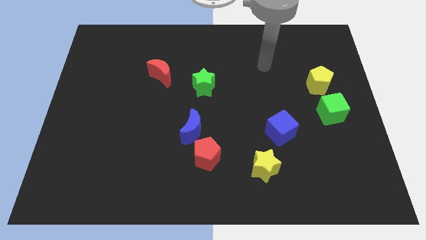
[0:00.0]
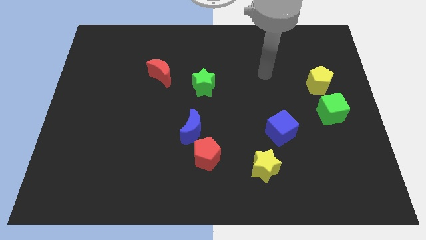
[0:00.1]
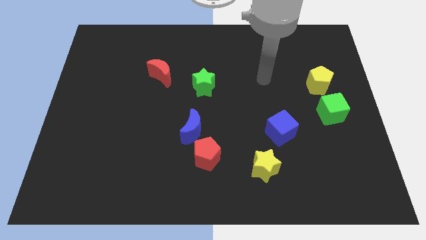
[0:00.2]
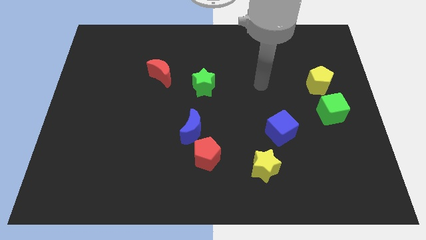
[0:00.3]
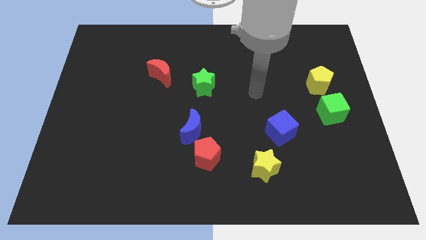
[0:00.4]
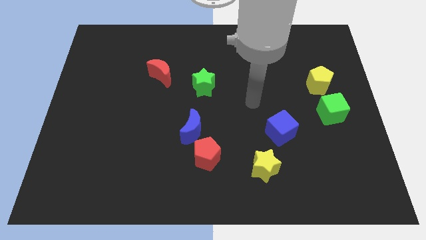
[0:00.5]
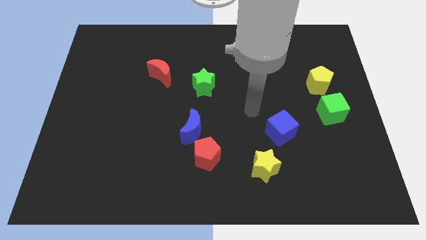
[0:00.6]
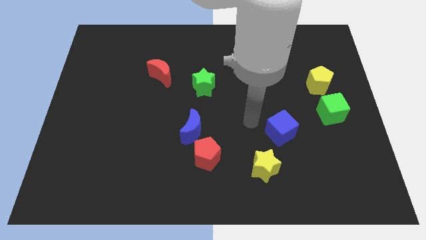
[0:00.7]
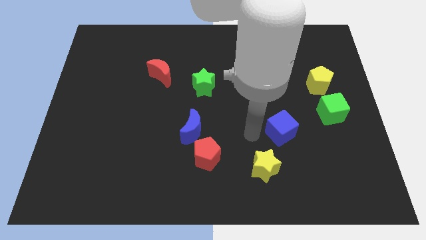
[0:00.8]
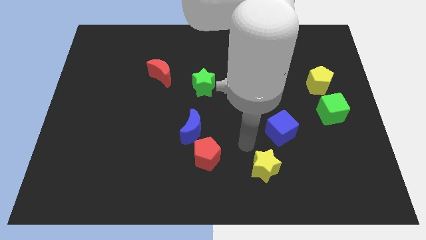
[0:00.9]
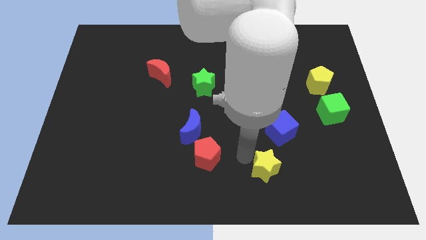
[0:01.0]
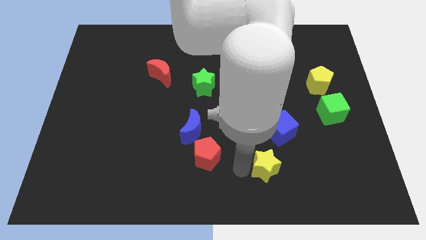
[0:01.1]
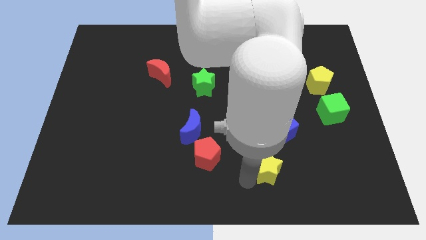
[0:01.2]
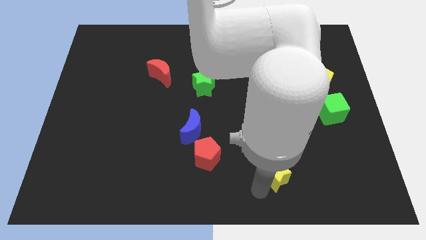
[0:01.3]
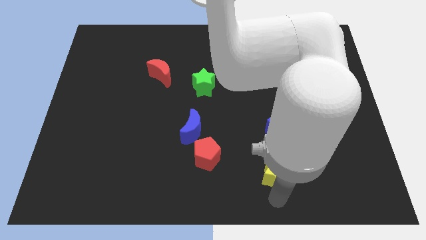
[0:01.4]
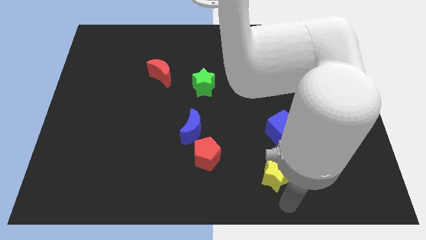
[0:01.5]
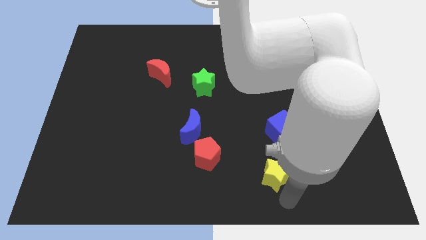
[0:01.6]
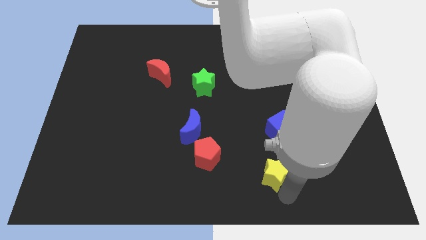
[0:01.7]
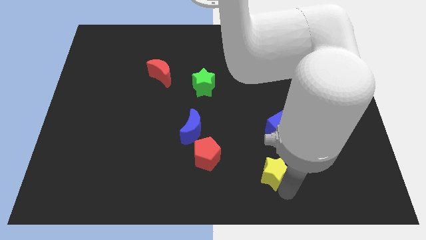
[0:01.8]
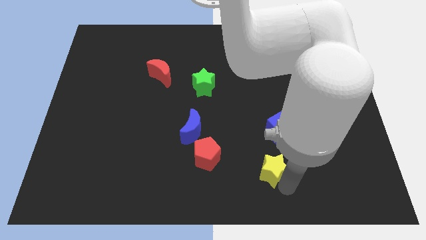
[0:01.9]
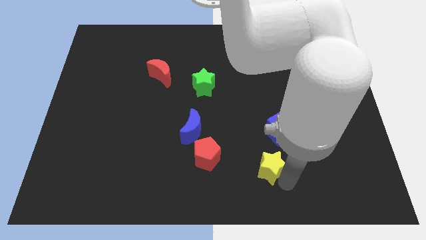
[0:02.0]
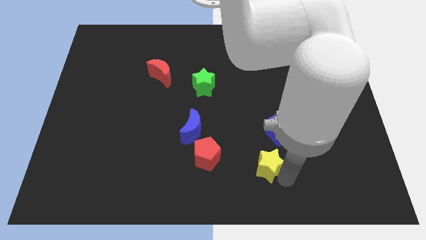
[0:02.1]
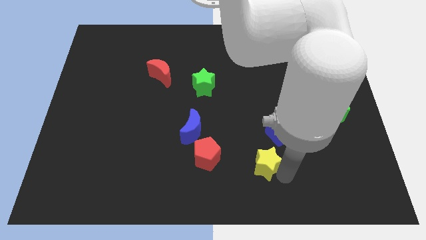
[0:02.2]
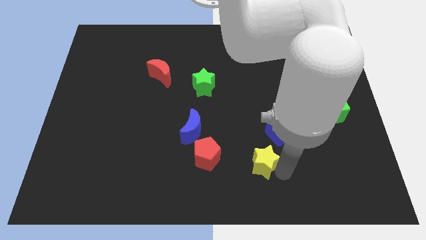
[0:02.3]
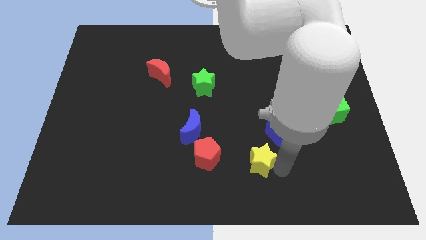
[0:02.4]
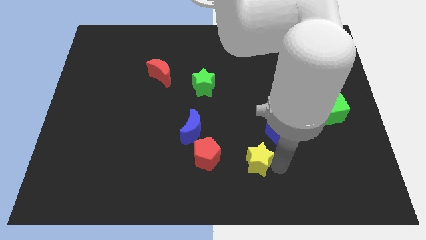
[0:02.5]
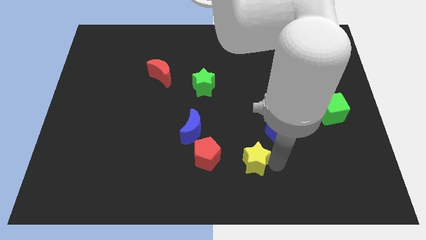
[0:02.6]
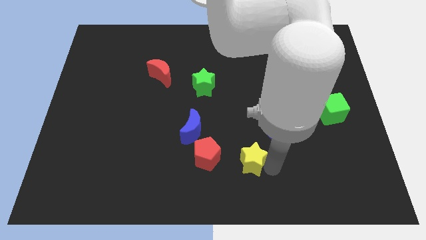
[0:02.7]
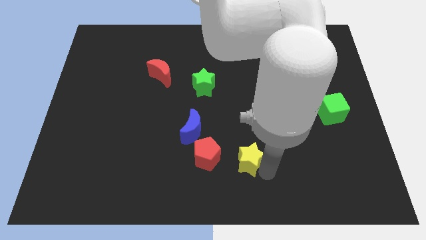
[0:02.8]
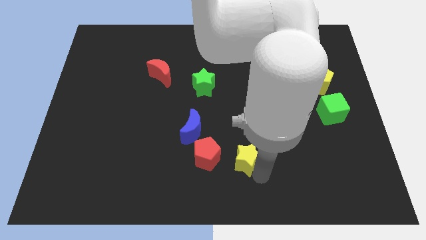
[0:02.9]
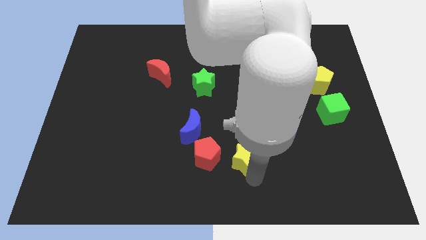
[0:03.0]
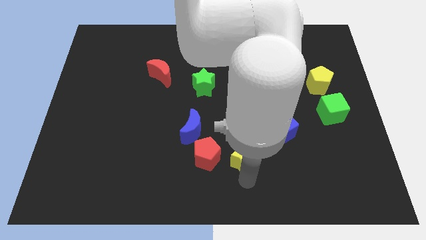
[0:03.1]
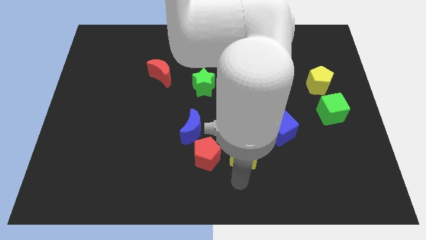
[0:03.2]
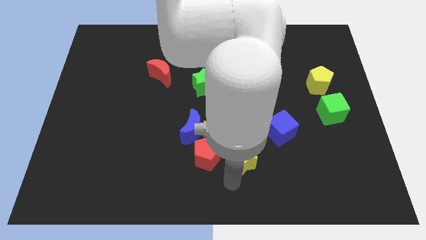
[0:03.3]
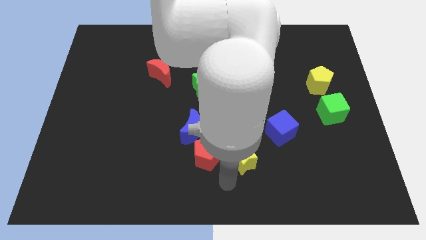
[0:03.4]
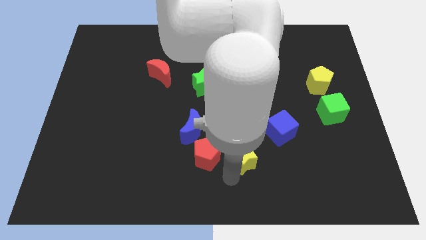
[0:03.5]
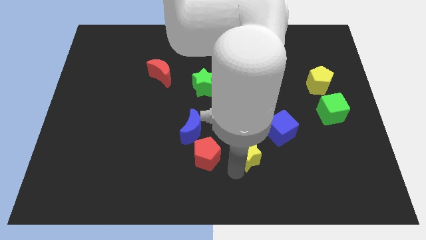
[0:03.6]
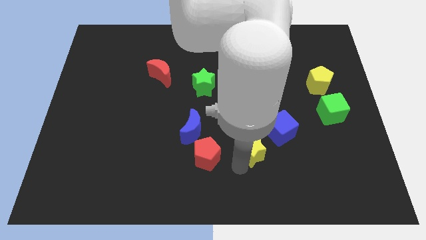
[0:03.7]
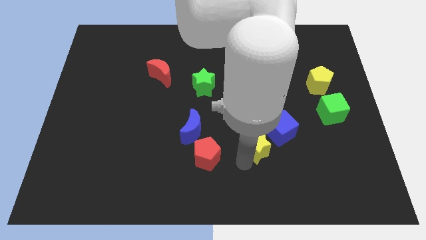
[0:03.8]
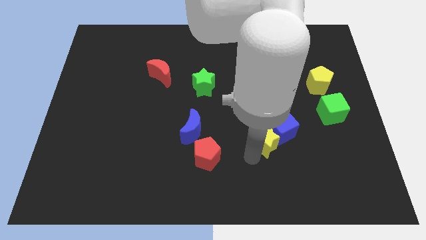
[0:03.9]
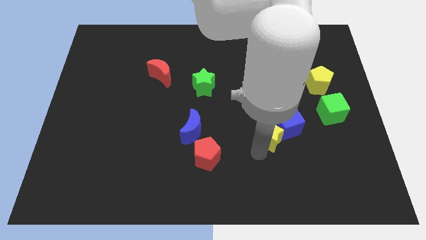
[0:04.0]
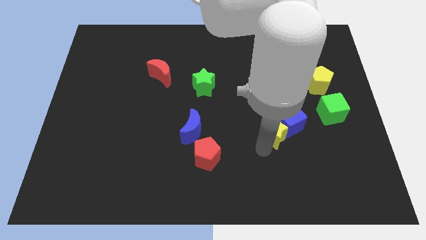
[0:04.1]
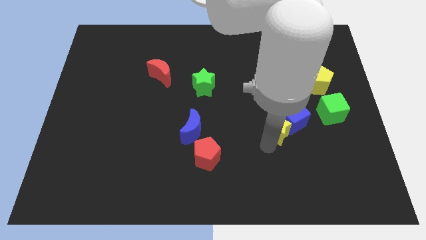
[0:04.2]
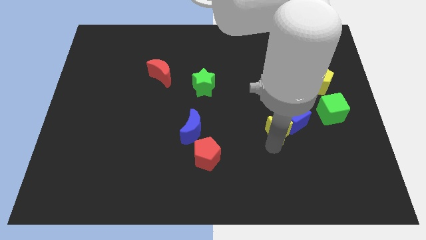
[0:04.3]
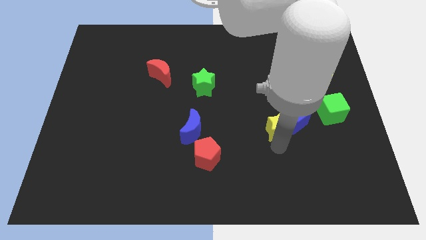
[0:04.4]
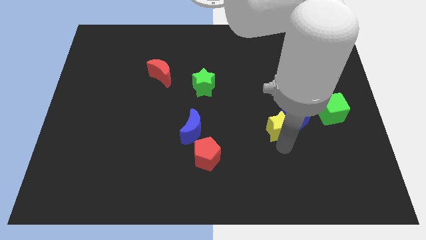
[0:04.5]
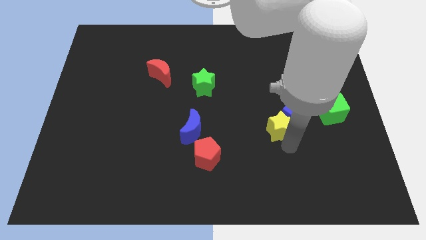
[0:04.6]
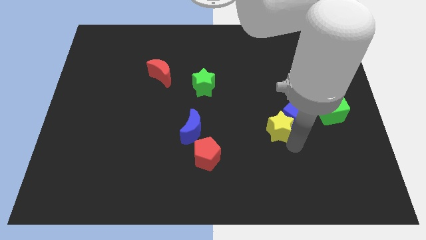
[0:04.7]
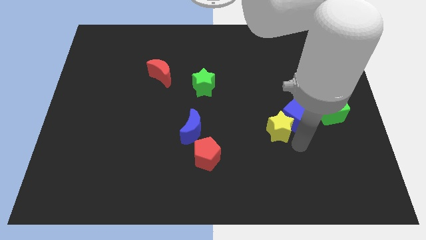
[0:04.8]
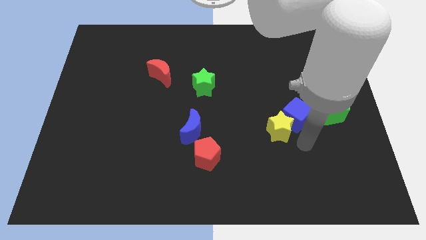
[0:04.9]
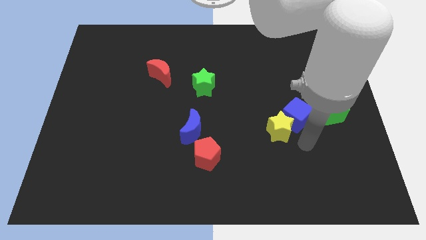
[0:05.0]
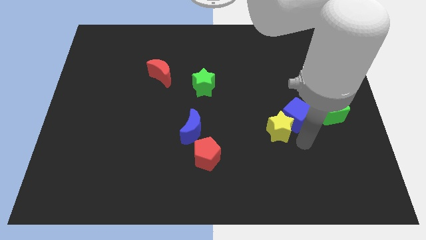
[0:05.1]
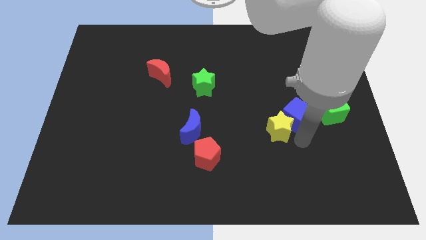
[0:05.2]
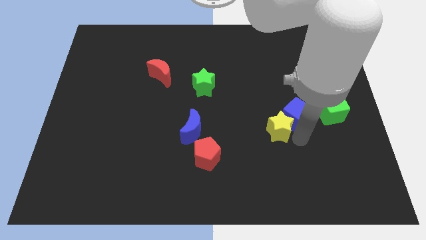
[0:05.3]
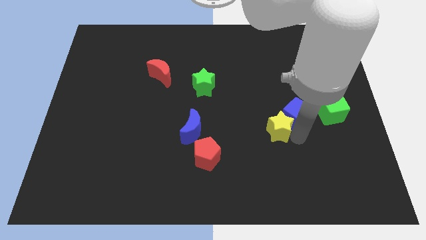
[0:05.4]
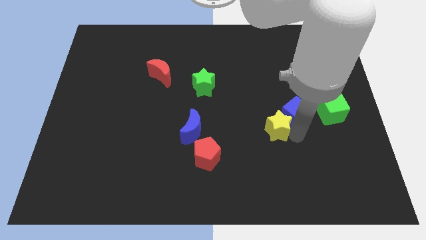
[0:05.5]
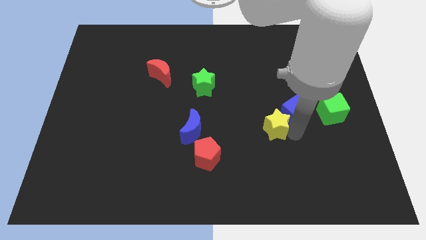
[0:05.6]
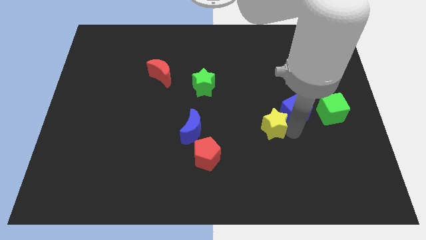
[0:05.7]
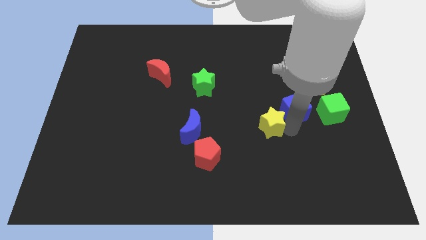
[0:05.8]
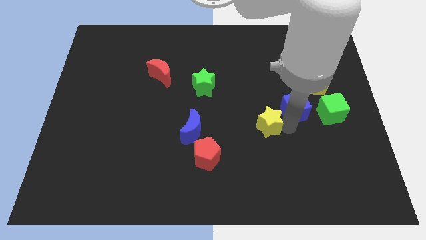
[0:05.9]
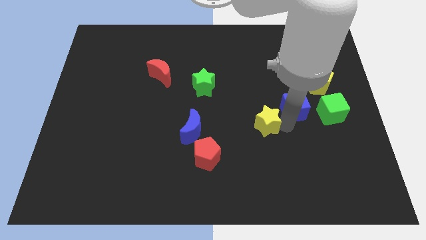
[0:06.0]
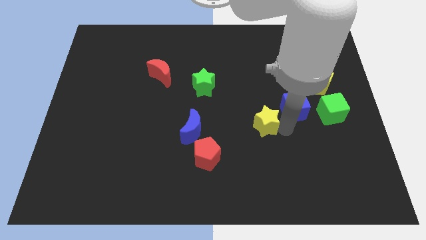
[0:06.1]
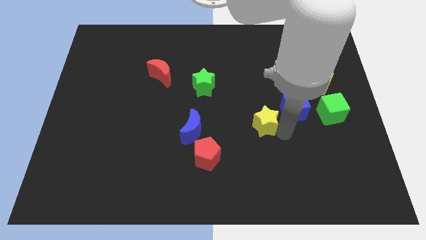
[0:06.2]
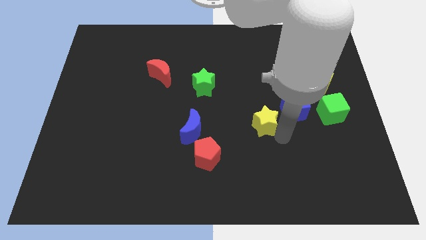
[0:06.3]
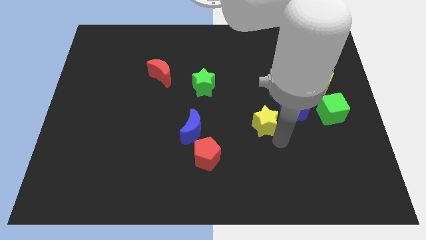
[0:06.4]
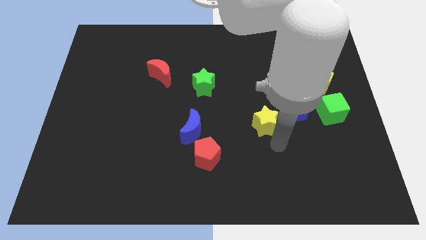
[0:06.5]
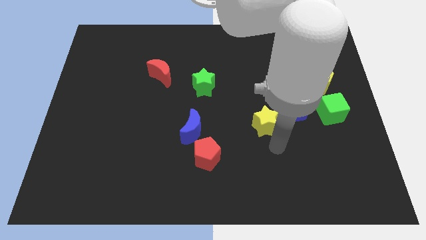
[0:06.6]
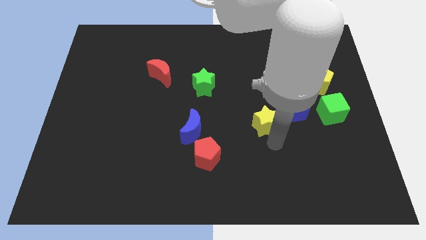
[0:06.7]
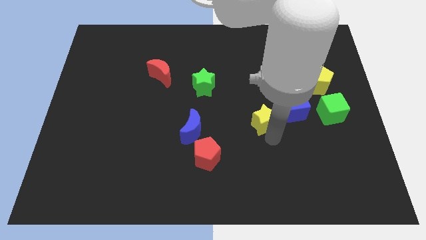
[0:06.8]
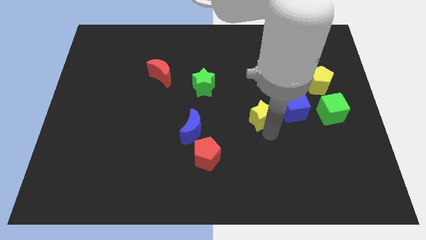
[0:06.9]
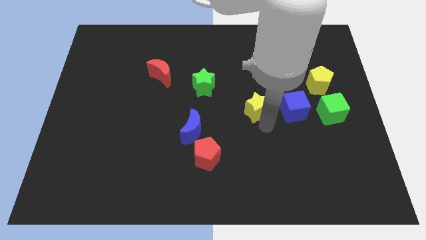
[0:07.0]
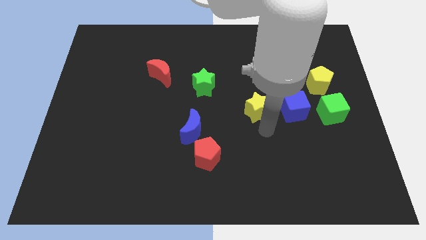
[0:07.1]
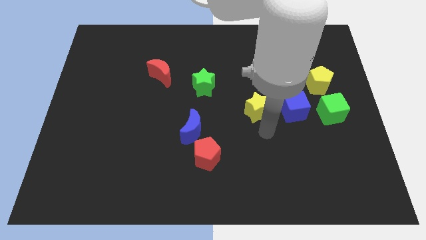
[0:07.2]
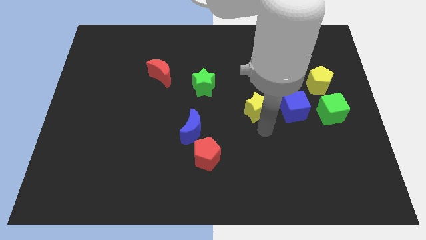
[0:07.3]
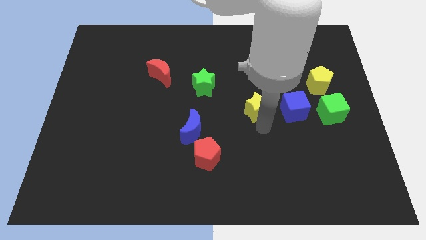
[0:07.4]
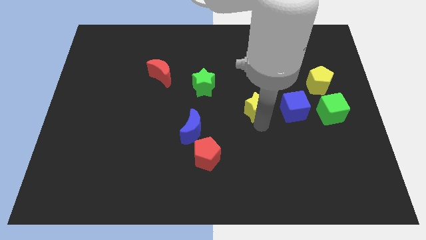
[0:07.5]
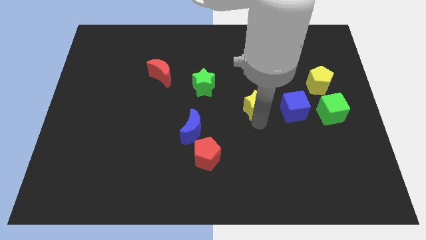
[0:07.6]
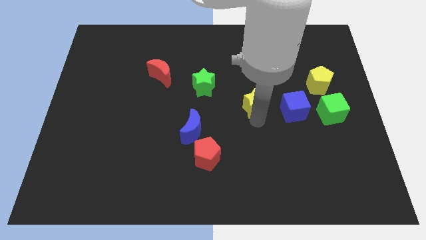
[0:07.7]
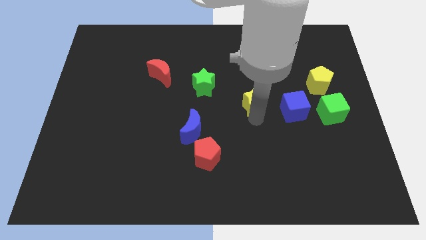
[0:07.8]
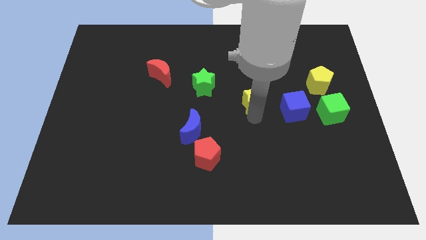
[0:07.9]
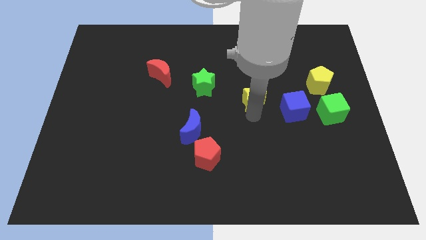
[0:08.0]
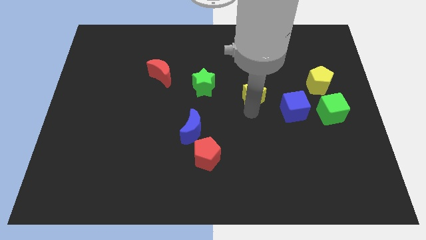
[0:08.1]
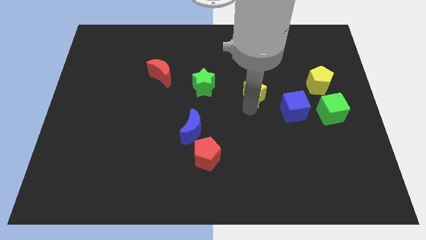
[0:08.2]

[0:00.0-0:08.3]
move the yellow star upwards
